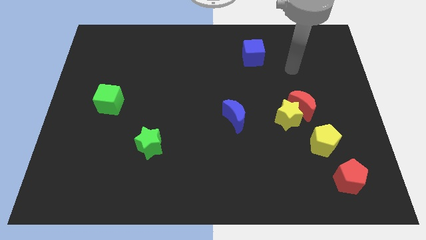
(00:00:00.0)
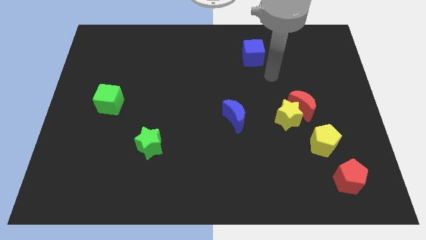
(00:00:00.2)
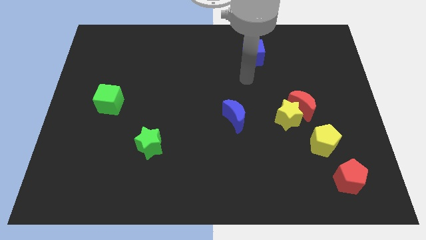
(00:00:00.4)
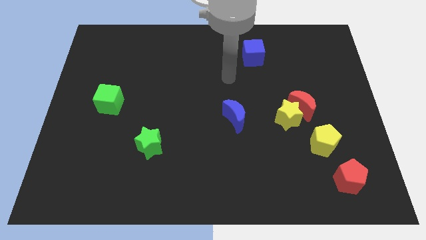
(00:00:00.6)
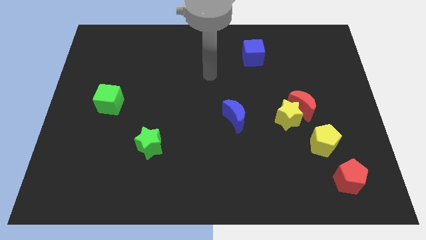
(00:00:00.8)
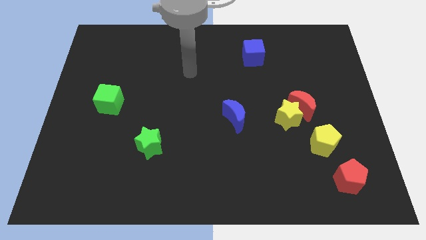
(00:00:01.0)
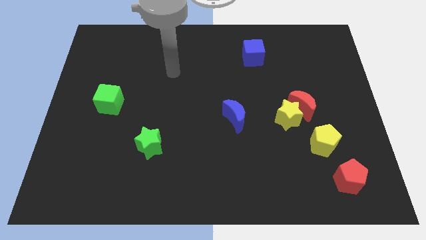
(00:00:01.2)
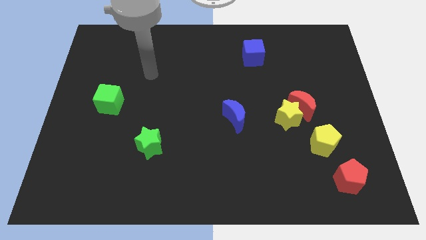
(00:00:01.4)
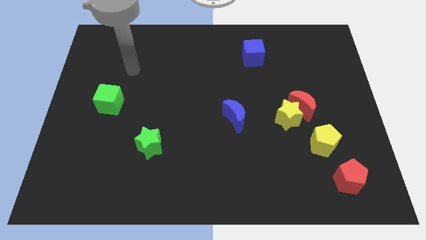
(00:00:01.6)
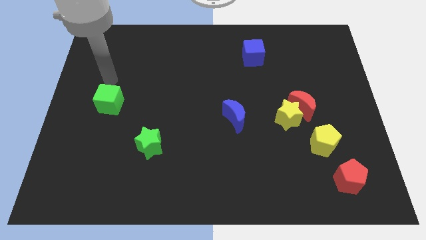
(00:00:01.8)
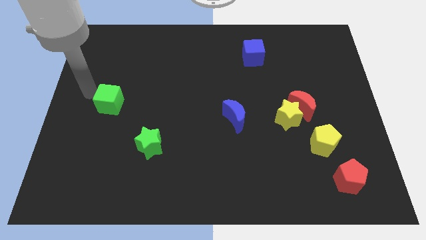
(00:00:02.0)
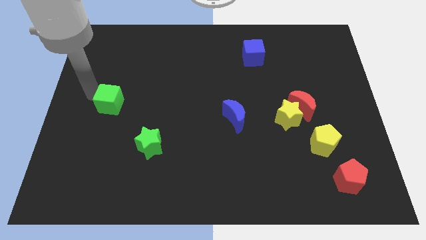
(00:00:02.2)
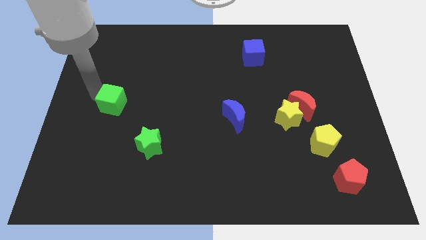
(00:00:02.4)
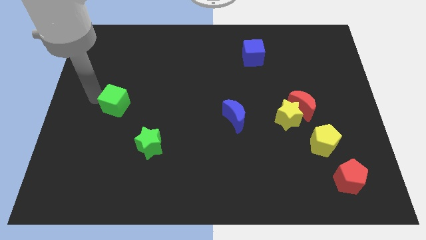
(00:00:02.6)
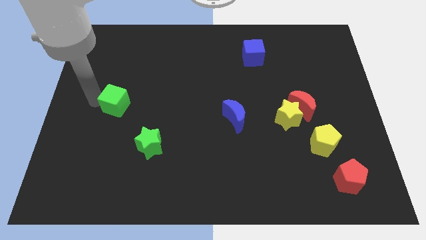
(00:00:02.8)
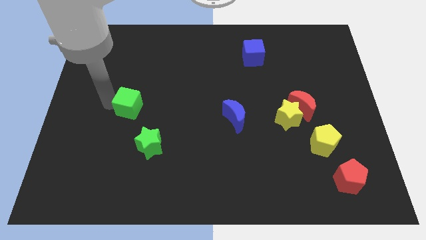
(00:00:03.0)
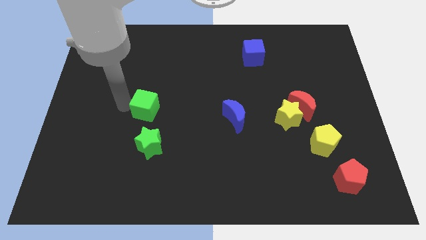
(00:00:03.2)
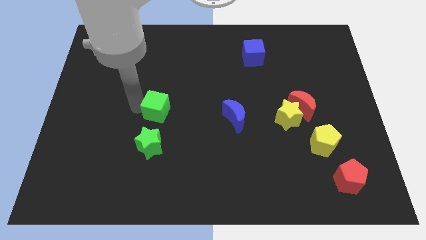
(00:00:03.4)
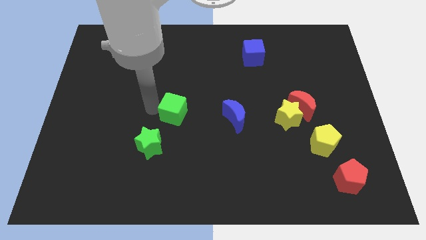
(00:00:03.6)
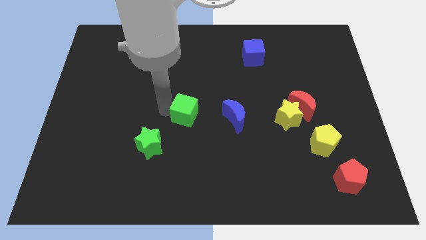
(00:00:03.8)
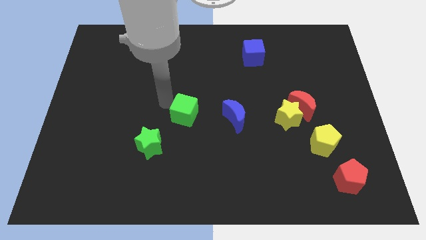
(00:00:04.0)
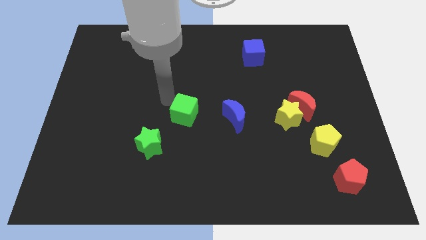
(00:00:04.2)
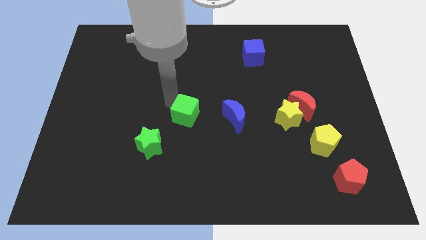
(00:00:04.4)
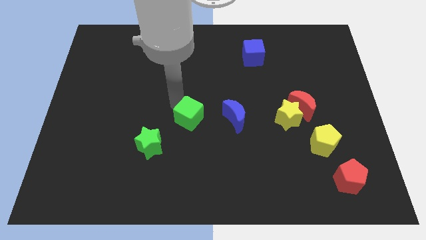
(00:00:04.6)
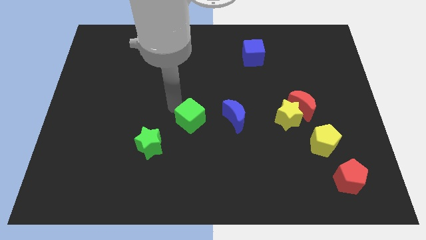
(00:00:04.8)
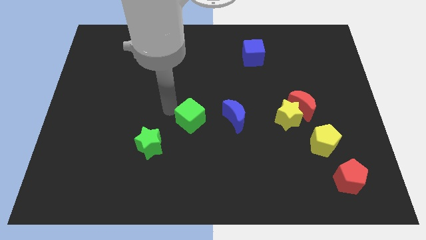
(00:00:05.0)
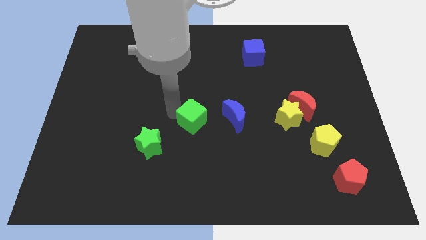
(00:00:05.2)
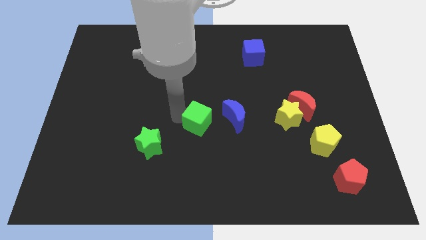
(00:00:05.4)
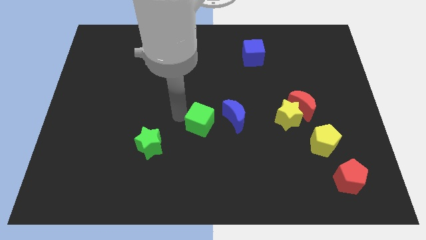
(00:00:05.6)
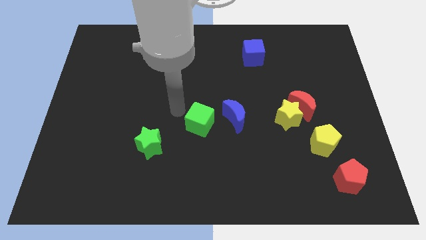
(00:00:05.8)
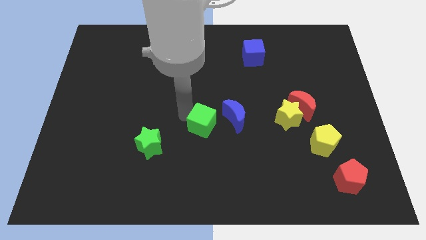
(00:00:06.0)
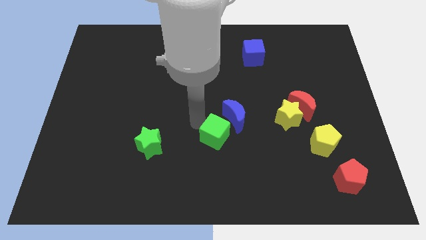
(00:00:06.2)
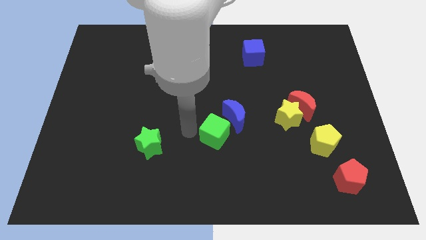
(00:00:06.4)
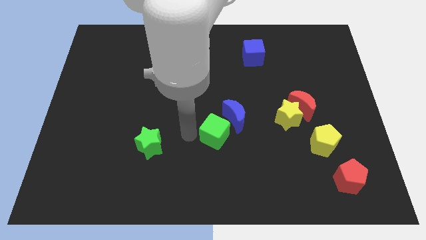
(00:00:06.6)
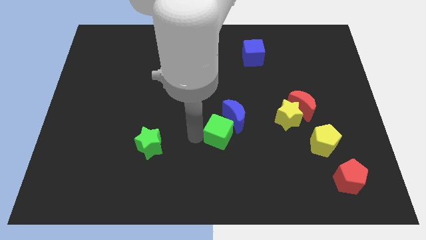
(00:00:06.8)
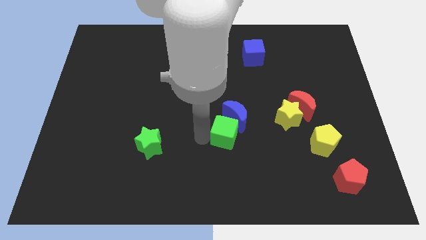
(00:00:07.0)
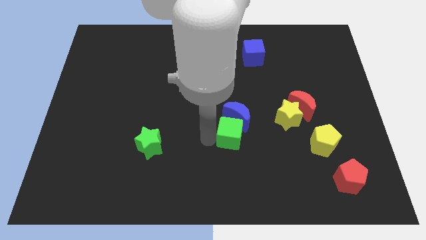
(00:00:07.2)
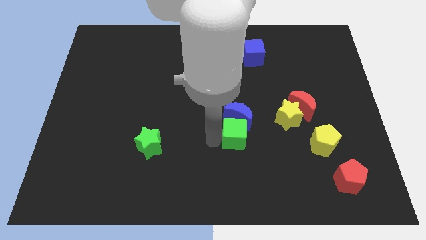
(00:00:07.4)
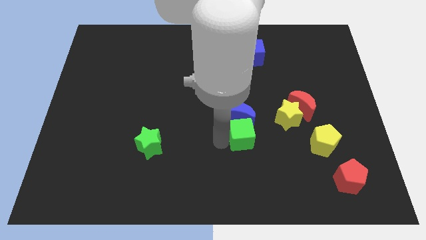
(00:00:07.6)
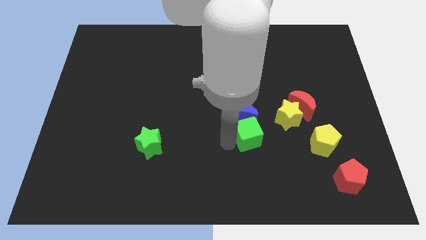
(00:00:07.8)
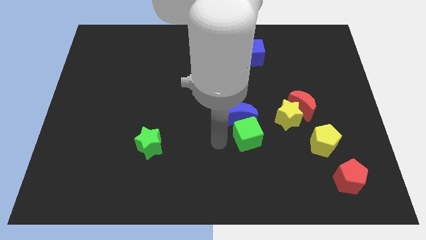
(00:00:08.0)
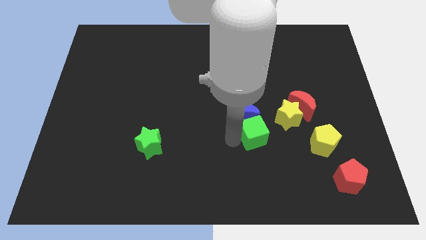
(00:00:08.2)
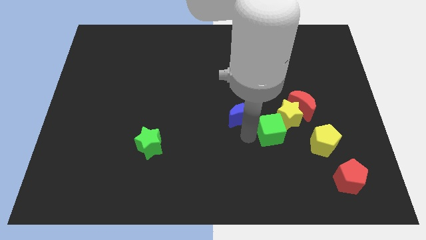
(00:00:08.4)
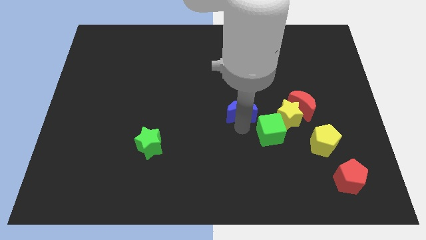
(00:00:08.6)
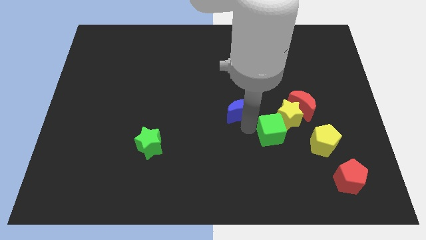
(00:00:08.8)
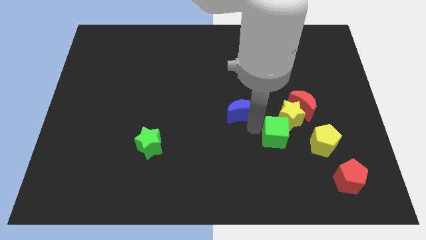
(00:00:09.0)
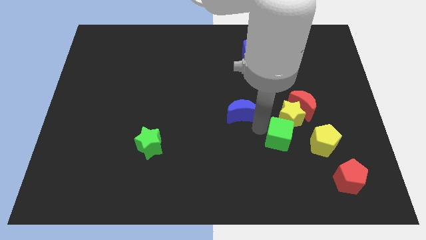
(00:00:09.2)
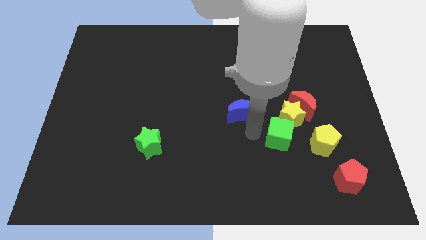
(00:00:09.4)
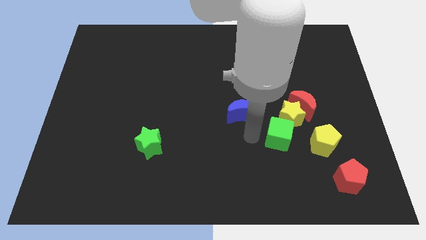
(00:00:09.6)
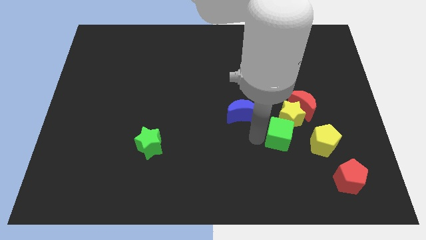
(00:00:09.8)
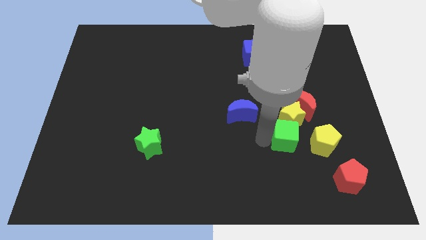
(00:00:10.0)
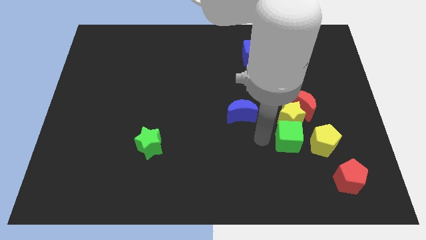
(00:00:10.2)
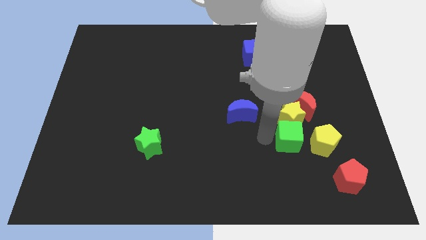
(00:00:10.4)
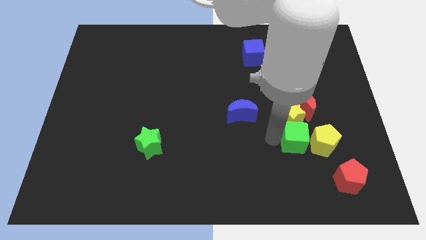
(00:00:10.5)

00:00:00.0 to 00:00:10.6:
move the green cube towards the yellow pentagon

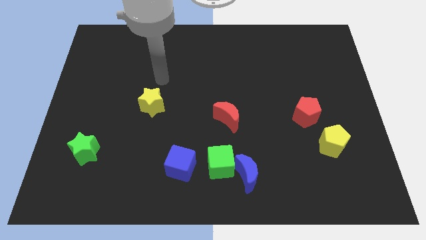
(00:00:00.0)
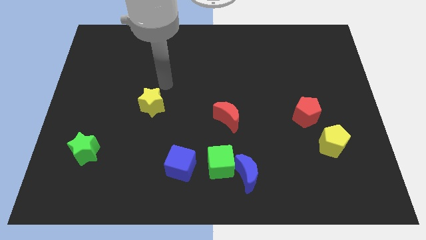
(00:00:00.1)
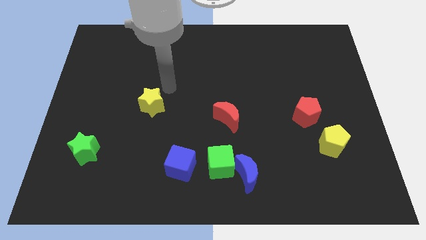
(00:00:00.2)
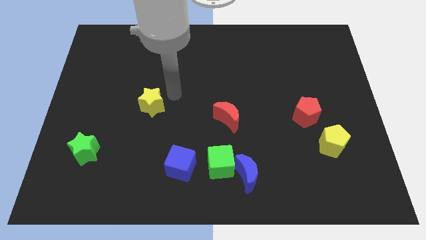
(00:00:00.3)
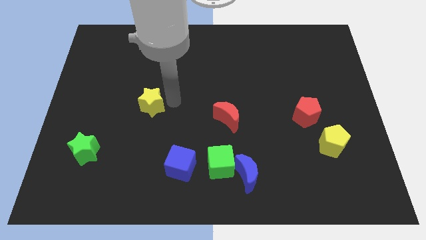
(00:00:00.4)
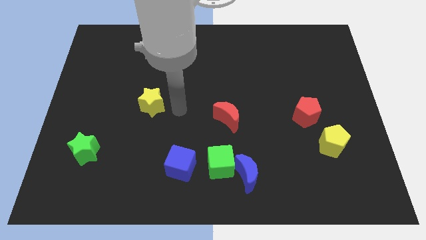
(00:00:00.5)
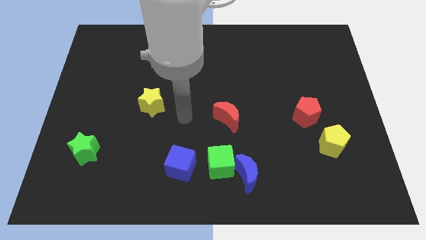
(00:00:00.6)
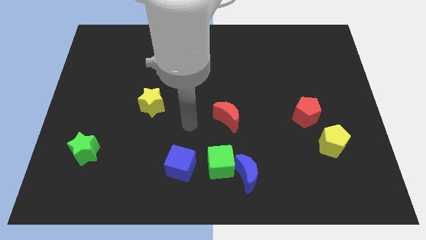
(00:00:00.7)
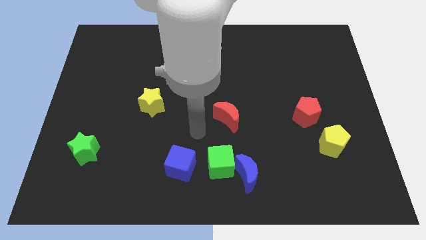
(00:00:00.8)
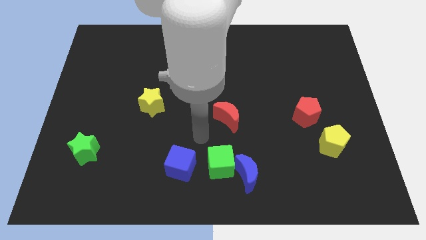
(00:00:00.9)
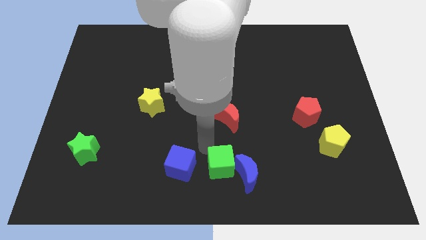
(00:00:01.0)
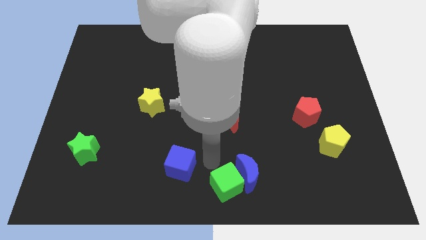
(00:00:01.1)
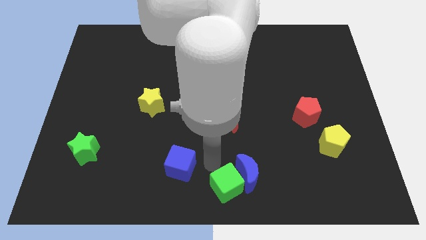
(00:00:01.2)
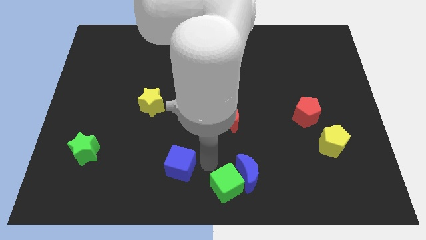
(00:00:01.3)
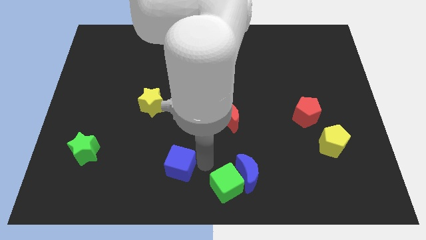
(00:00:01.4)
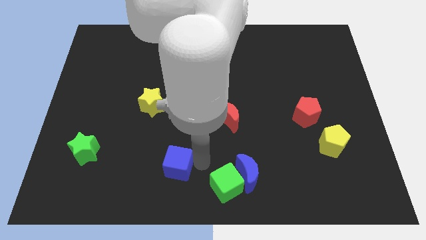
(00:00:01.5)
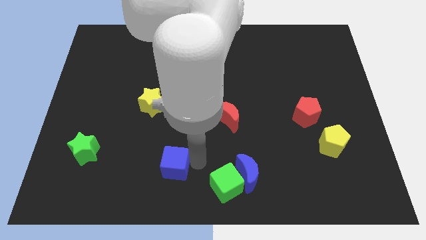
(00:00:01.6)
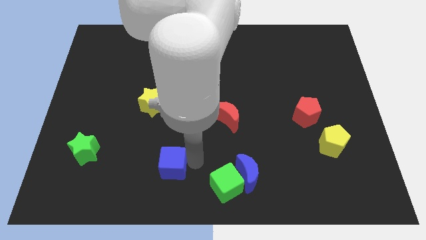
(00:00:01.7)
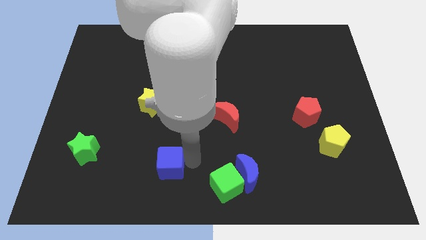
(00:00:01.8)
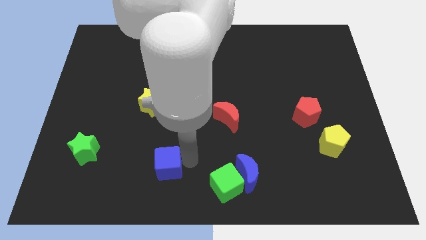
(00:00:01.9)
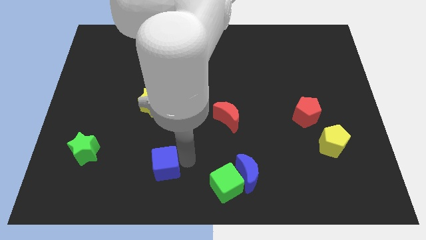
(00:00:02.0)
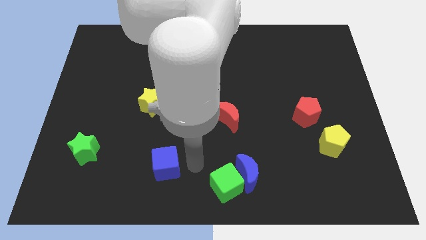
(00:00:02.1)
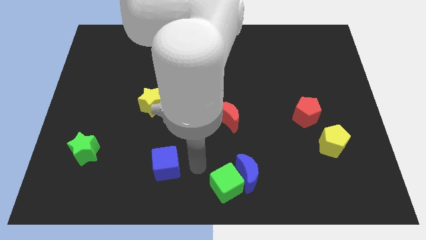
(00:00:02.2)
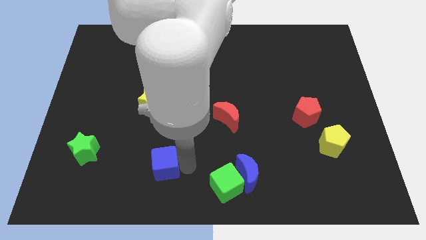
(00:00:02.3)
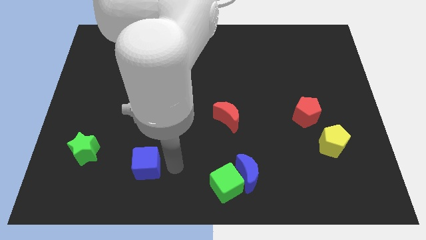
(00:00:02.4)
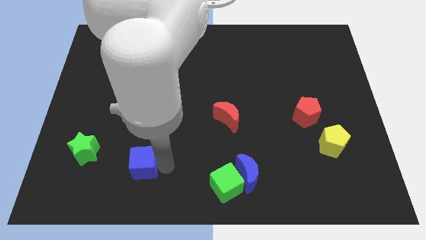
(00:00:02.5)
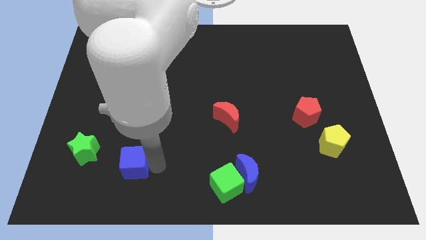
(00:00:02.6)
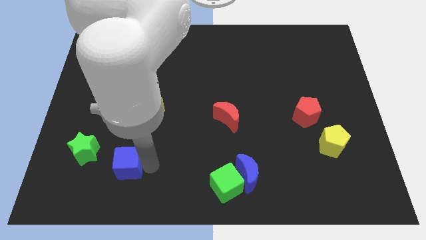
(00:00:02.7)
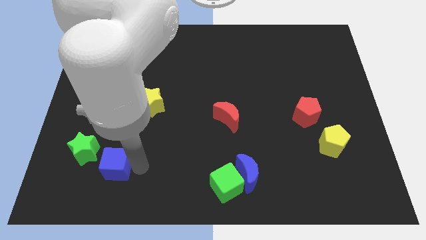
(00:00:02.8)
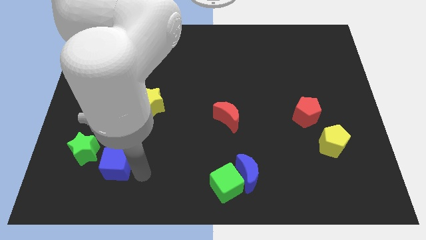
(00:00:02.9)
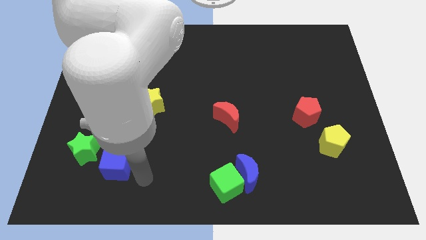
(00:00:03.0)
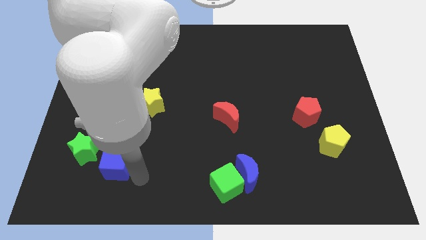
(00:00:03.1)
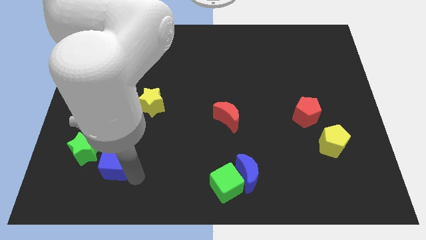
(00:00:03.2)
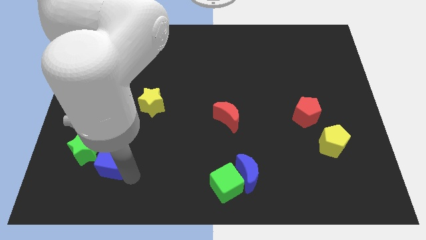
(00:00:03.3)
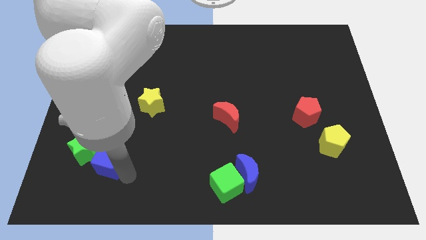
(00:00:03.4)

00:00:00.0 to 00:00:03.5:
slide the blue cube close to the green star
